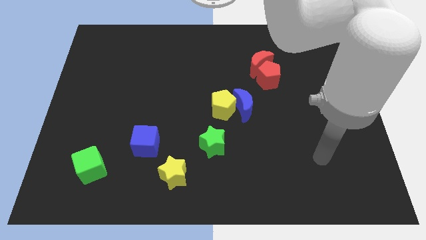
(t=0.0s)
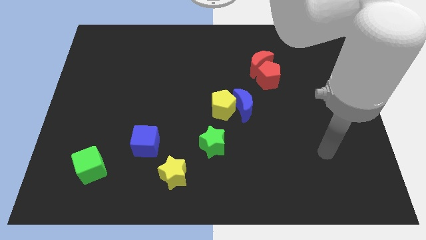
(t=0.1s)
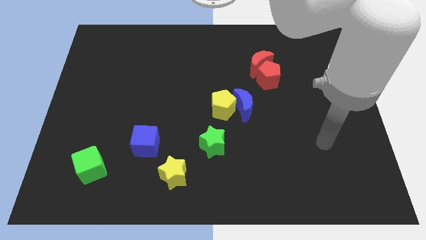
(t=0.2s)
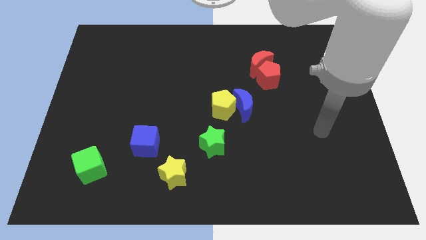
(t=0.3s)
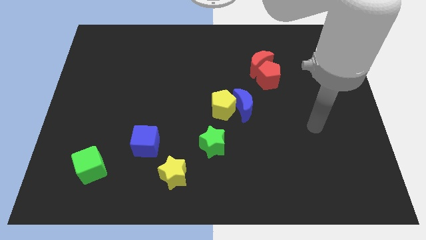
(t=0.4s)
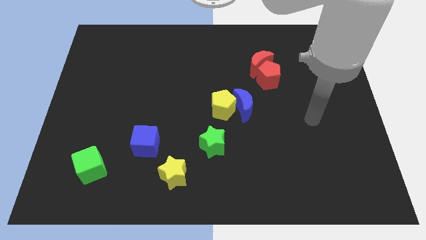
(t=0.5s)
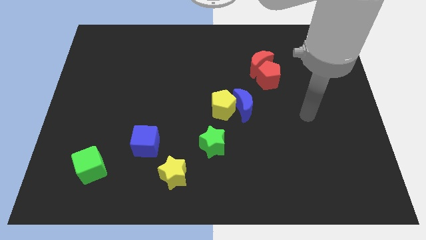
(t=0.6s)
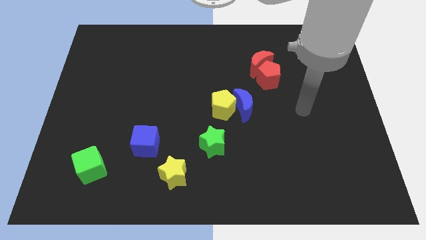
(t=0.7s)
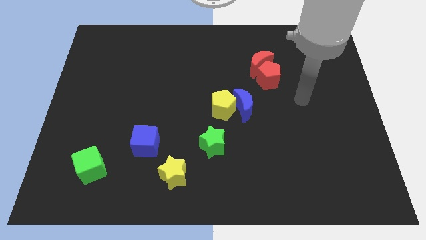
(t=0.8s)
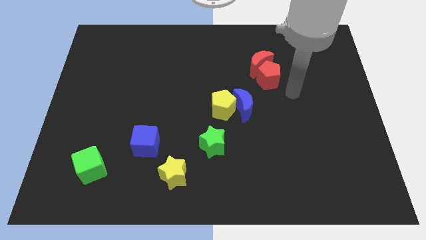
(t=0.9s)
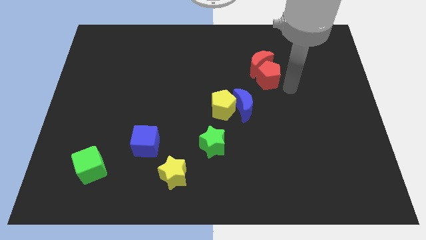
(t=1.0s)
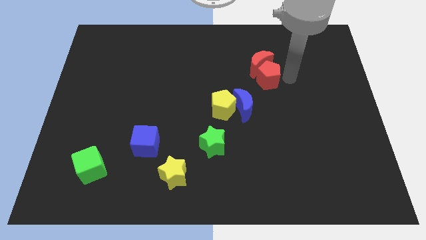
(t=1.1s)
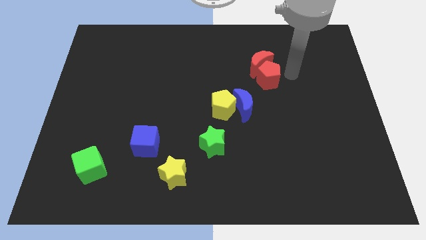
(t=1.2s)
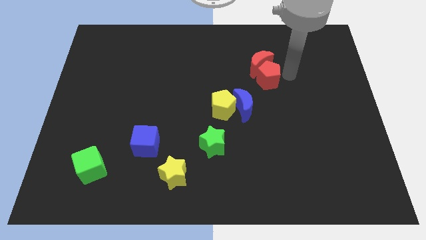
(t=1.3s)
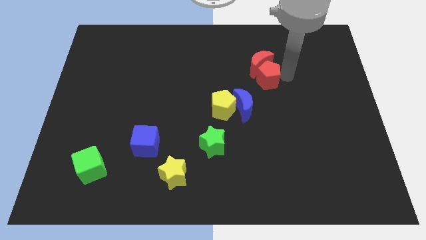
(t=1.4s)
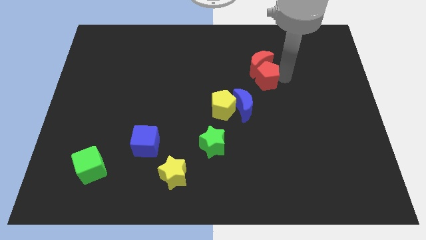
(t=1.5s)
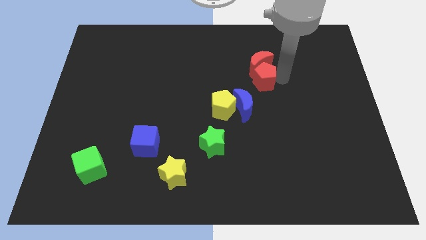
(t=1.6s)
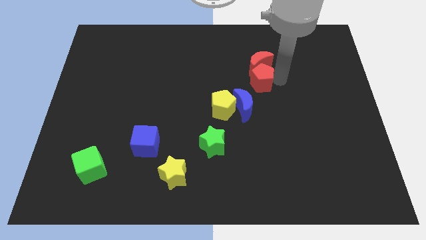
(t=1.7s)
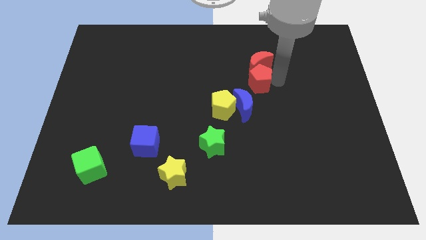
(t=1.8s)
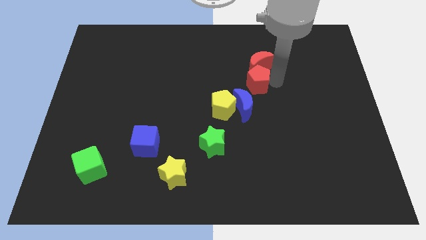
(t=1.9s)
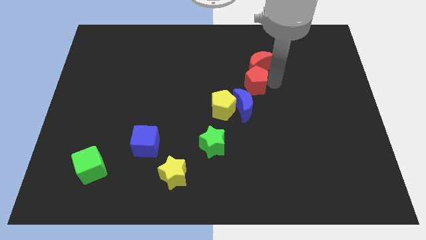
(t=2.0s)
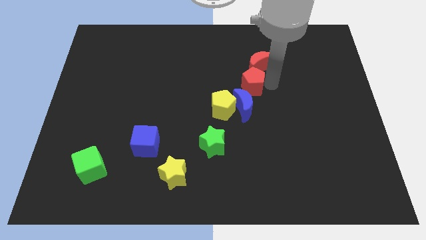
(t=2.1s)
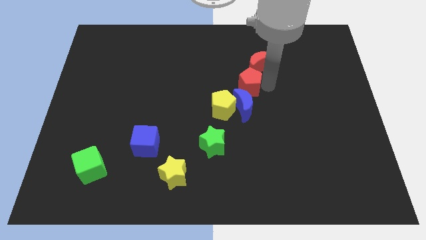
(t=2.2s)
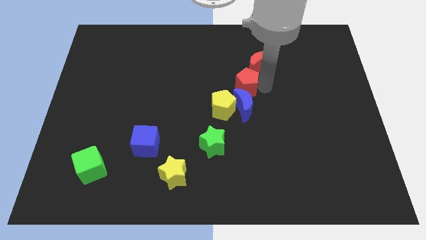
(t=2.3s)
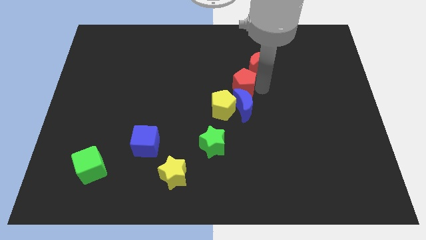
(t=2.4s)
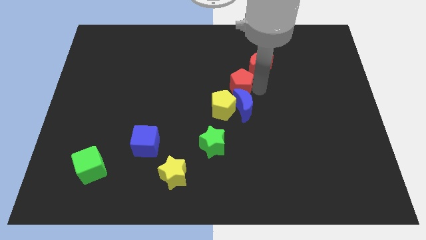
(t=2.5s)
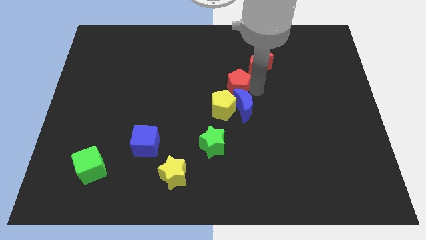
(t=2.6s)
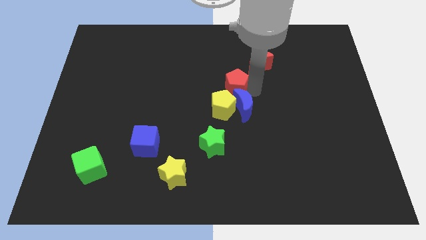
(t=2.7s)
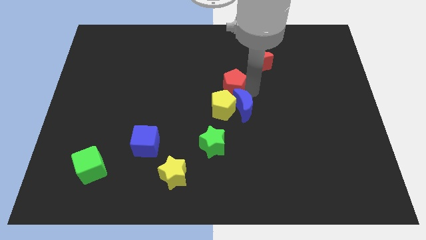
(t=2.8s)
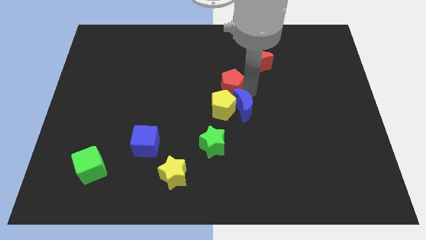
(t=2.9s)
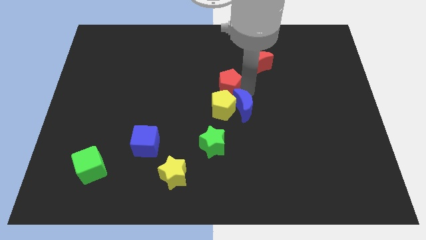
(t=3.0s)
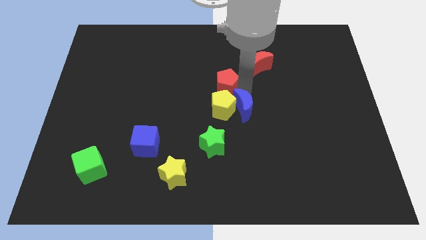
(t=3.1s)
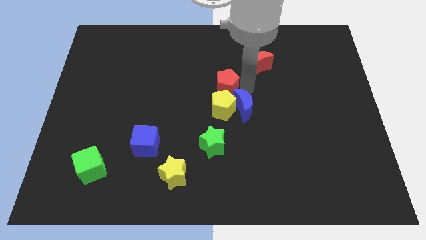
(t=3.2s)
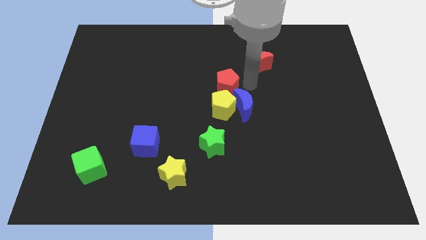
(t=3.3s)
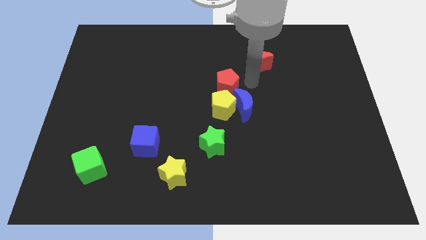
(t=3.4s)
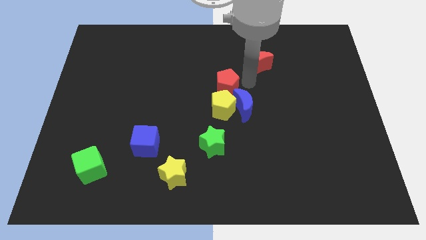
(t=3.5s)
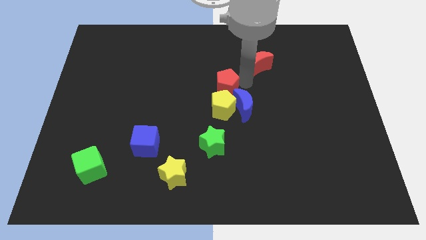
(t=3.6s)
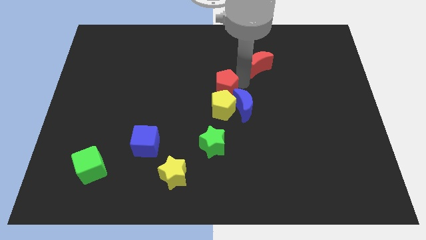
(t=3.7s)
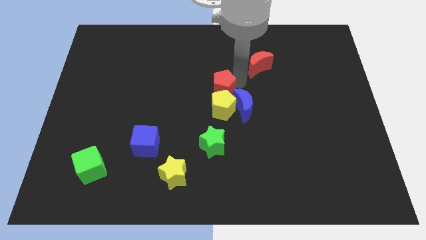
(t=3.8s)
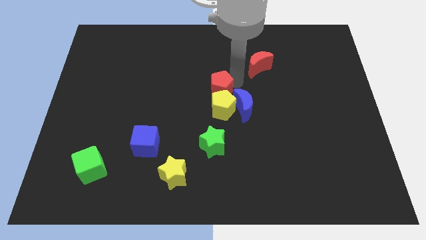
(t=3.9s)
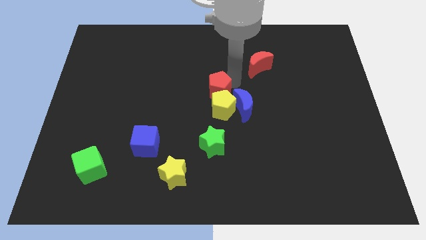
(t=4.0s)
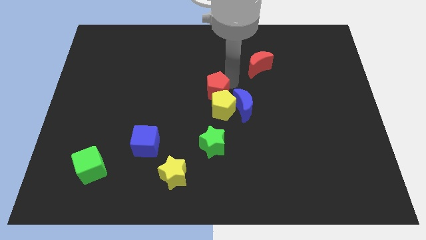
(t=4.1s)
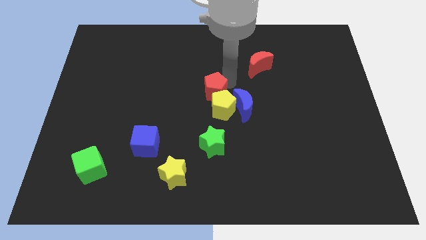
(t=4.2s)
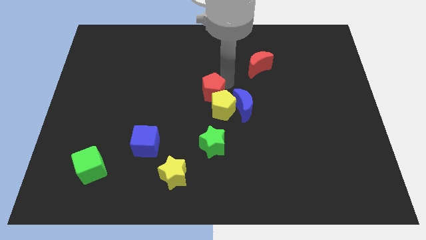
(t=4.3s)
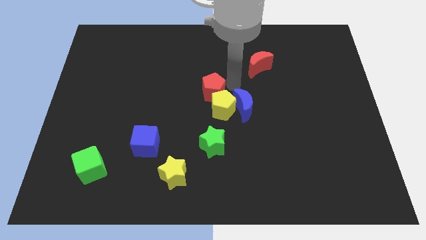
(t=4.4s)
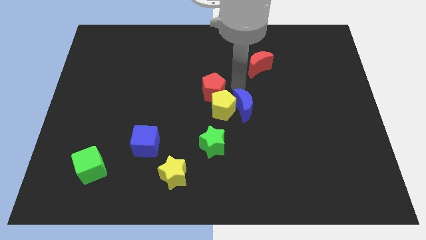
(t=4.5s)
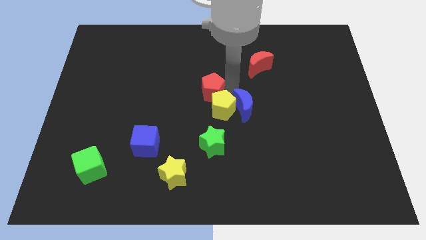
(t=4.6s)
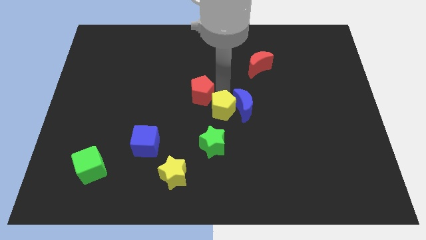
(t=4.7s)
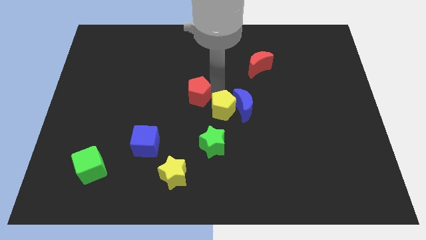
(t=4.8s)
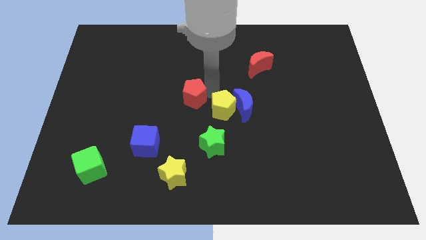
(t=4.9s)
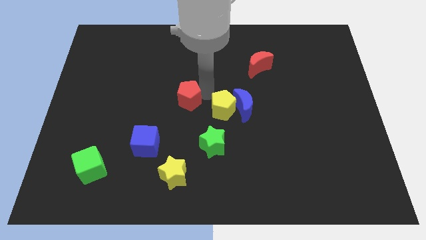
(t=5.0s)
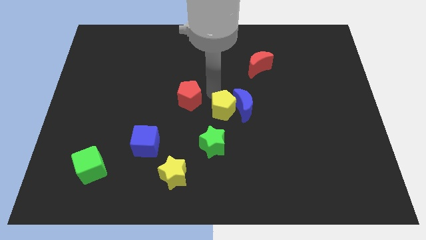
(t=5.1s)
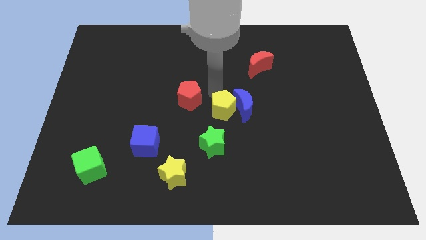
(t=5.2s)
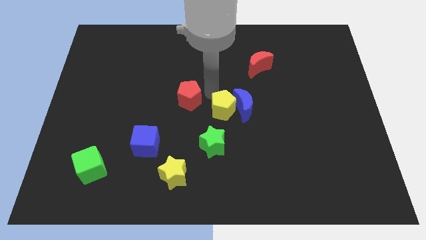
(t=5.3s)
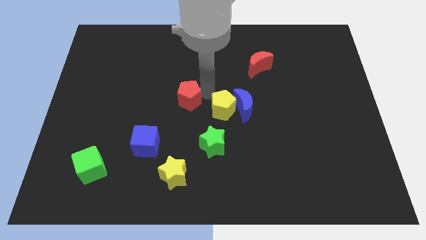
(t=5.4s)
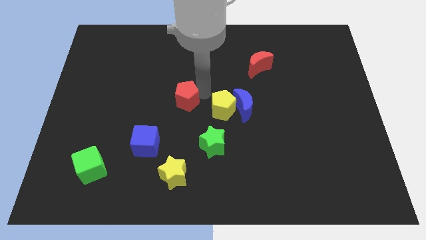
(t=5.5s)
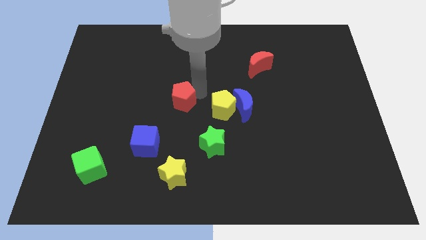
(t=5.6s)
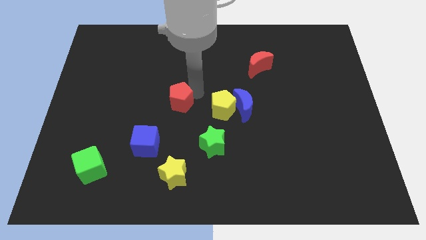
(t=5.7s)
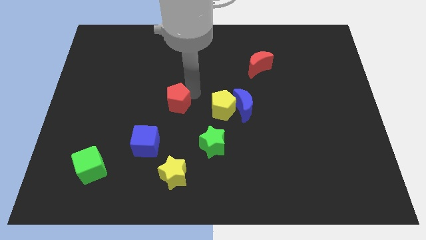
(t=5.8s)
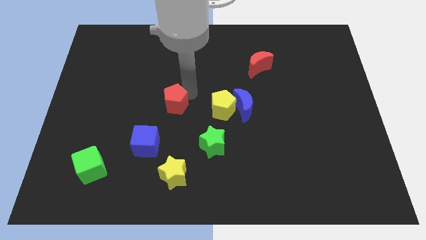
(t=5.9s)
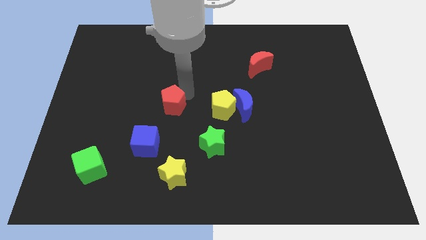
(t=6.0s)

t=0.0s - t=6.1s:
push the red pentagon above the blue cube

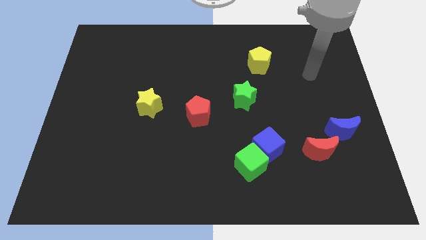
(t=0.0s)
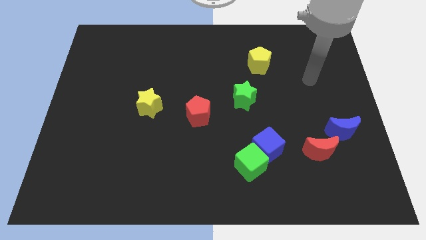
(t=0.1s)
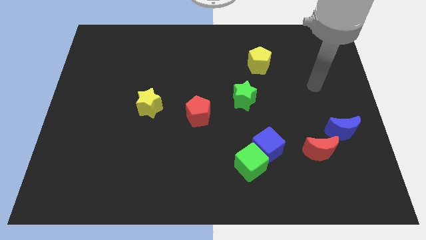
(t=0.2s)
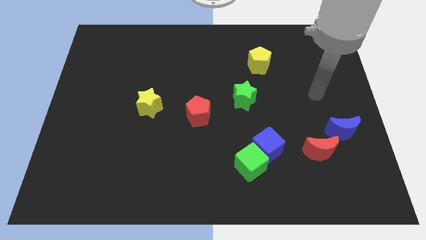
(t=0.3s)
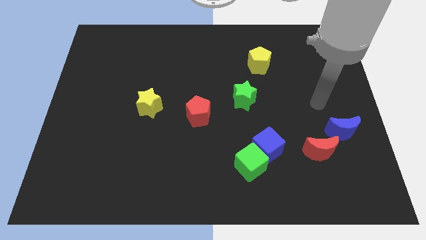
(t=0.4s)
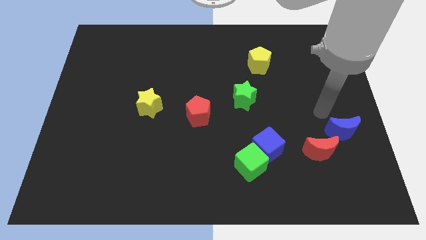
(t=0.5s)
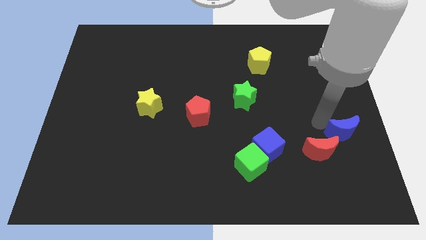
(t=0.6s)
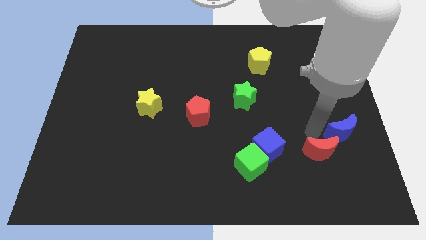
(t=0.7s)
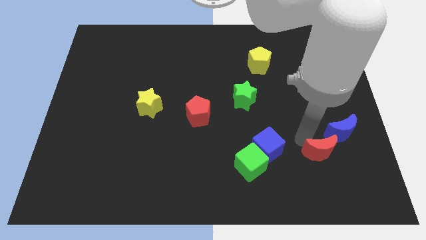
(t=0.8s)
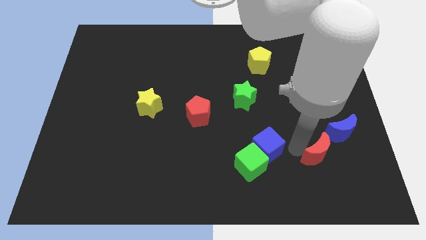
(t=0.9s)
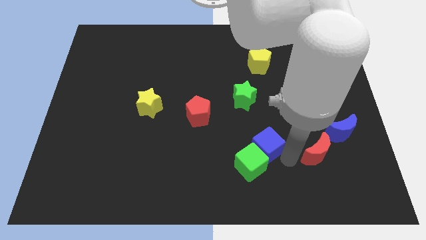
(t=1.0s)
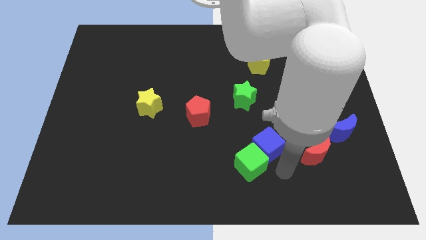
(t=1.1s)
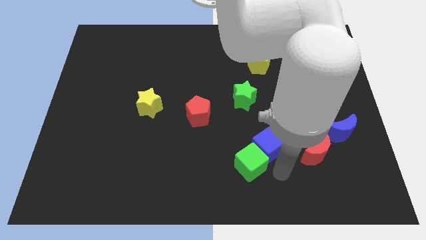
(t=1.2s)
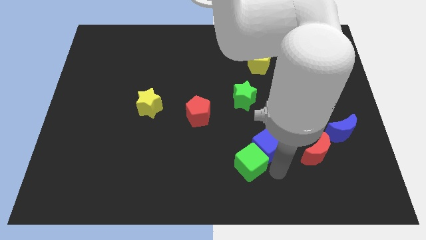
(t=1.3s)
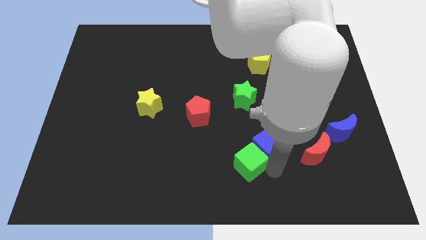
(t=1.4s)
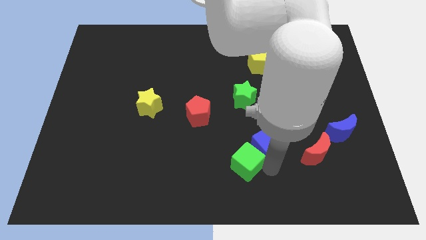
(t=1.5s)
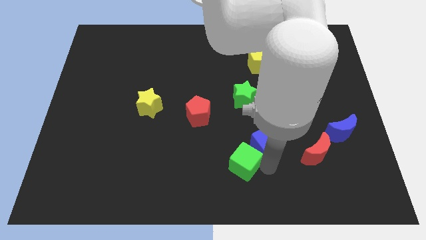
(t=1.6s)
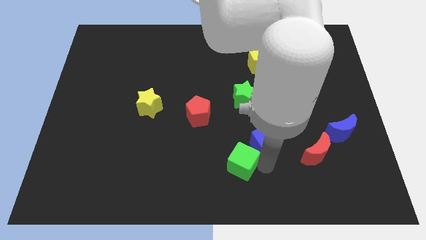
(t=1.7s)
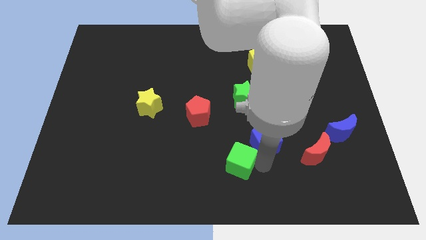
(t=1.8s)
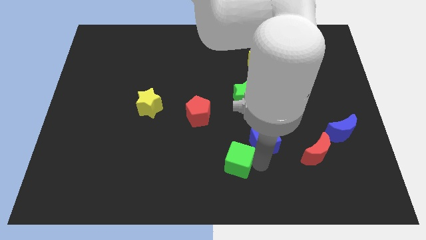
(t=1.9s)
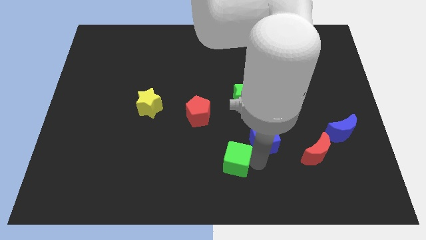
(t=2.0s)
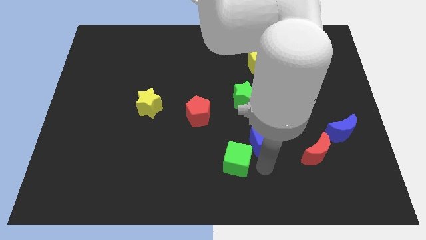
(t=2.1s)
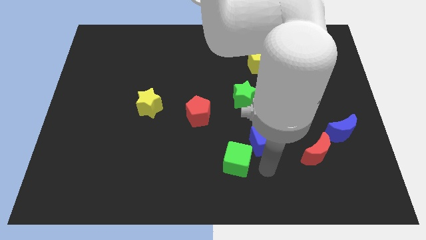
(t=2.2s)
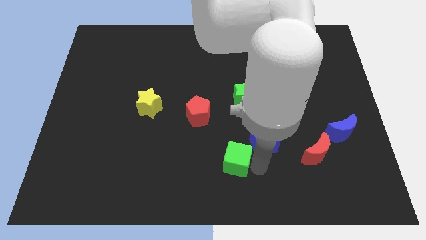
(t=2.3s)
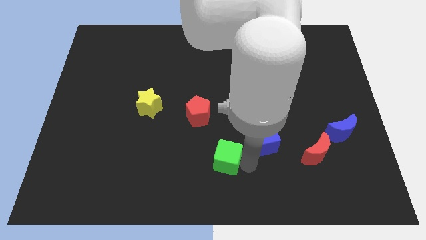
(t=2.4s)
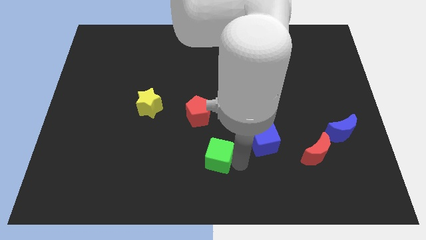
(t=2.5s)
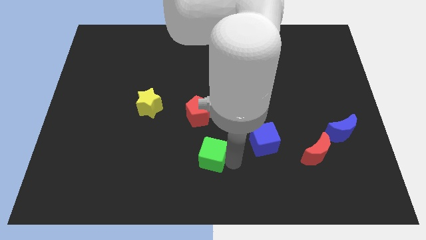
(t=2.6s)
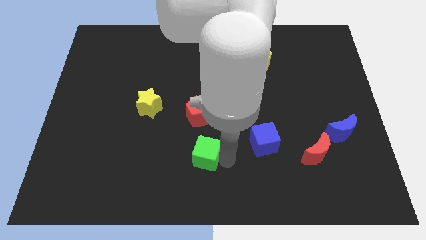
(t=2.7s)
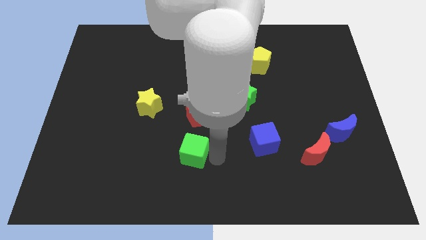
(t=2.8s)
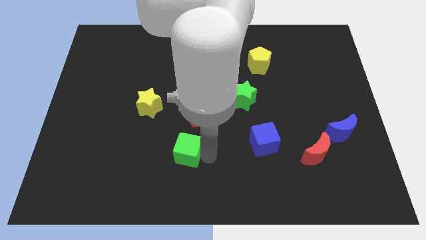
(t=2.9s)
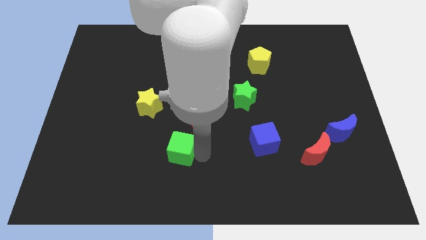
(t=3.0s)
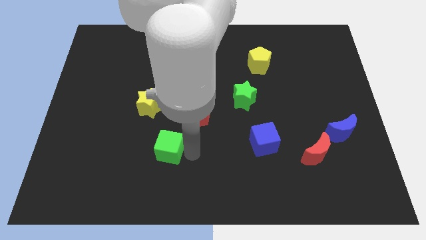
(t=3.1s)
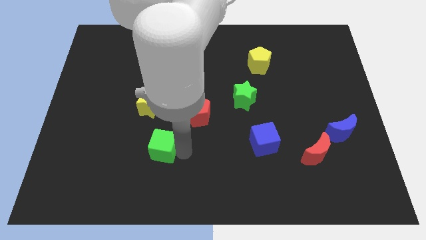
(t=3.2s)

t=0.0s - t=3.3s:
push the green cube to the bottom side of the yellow star
